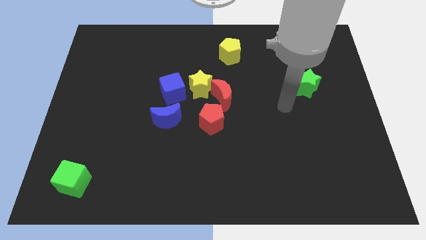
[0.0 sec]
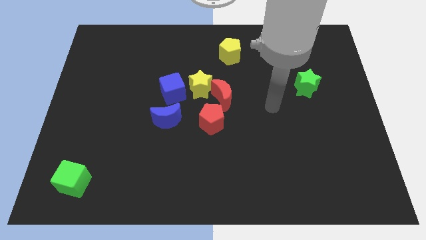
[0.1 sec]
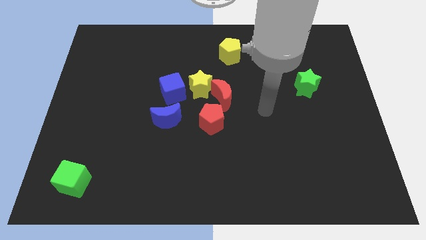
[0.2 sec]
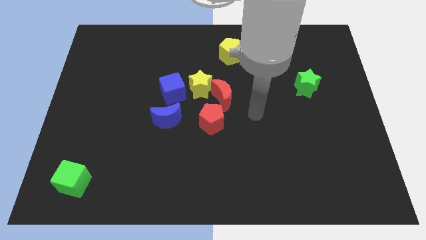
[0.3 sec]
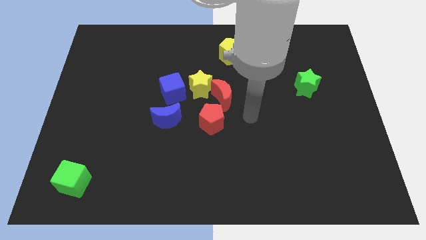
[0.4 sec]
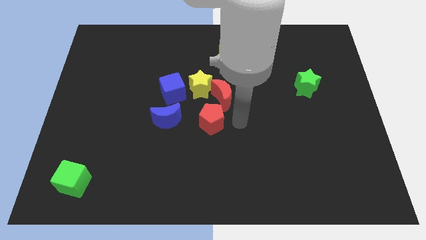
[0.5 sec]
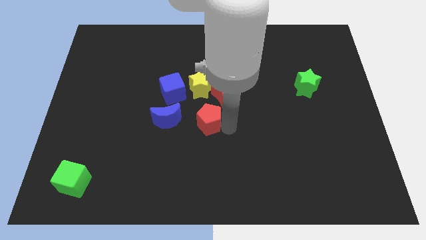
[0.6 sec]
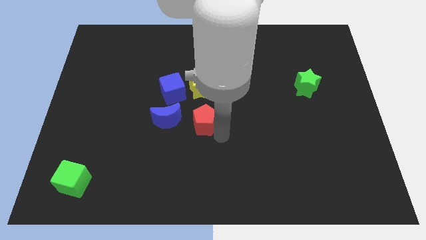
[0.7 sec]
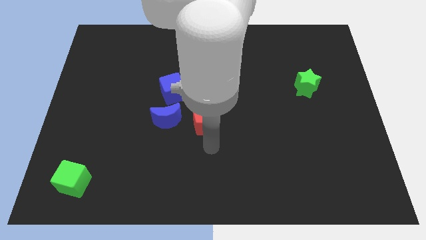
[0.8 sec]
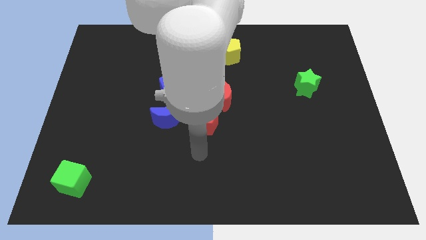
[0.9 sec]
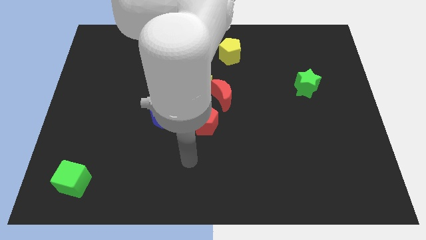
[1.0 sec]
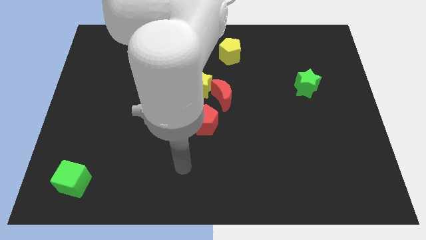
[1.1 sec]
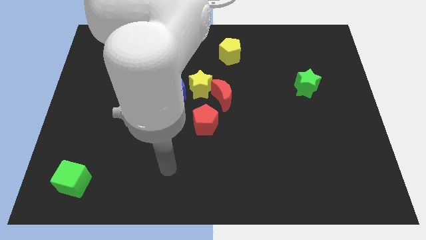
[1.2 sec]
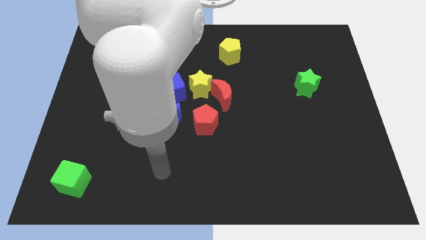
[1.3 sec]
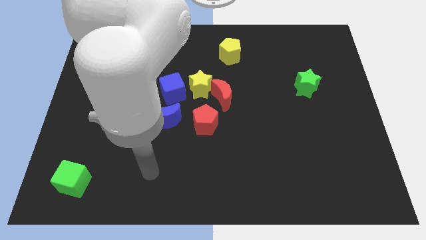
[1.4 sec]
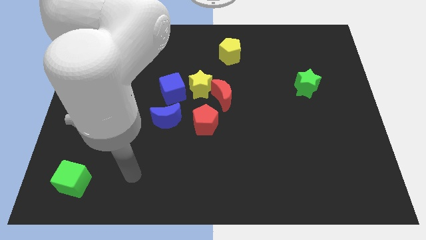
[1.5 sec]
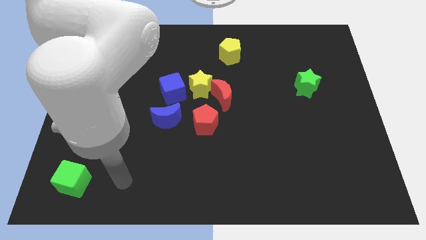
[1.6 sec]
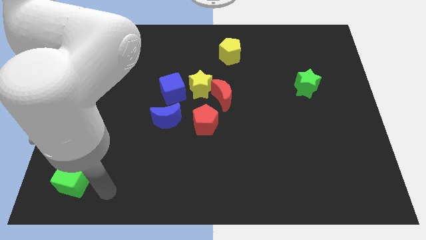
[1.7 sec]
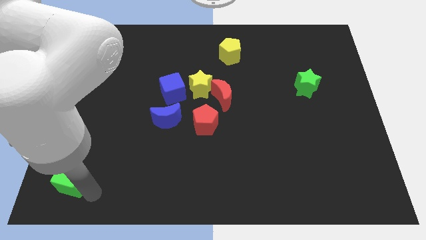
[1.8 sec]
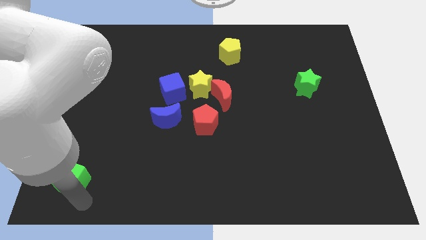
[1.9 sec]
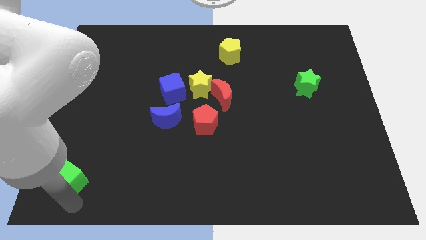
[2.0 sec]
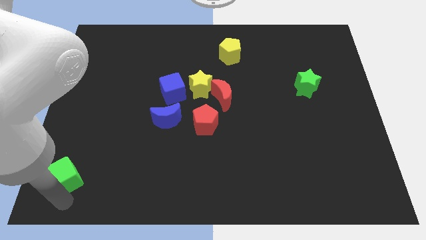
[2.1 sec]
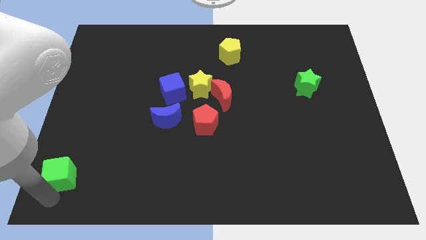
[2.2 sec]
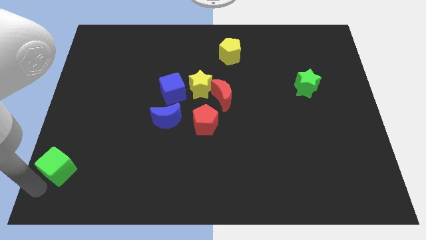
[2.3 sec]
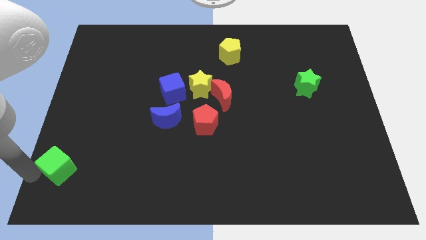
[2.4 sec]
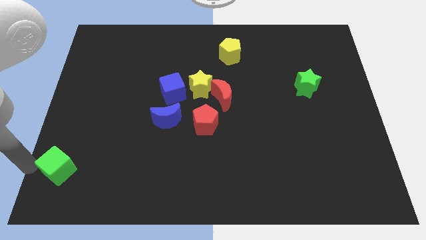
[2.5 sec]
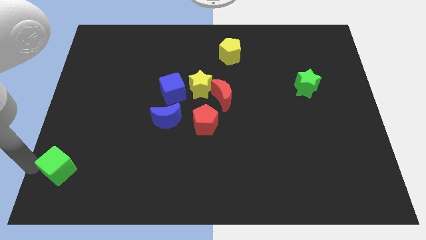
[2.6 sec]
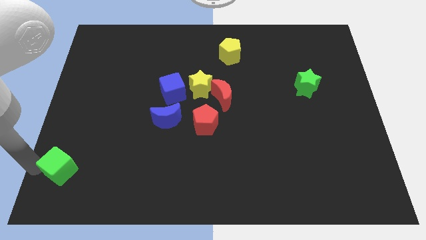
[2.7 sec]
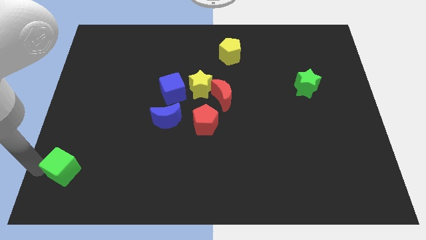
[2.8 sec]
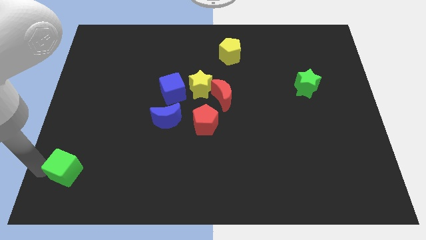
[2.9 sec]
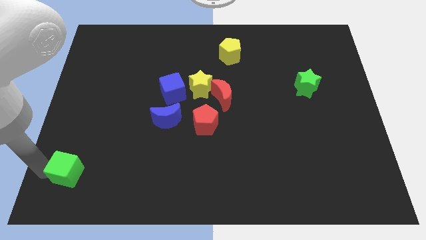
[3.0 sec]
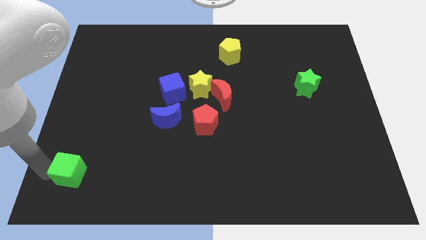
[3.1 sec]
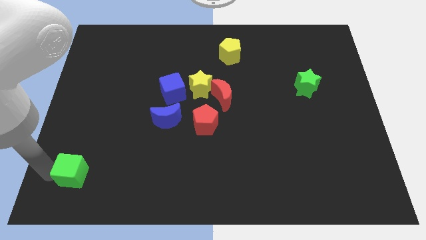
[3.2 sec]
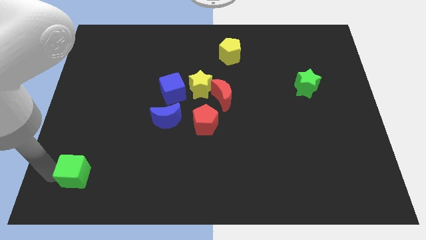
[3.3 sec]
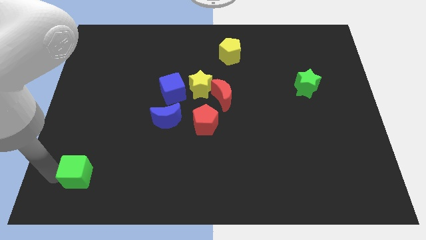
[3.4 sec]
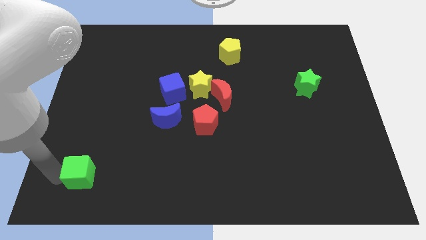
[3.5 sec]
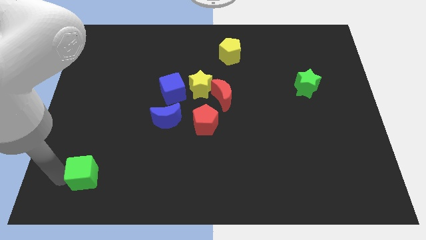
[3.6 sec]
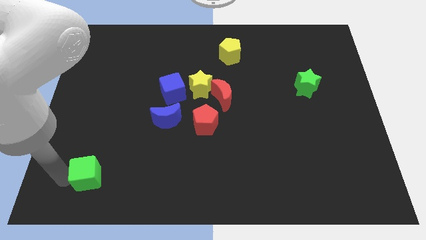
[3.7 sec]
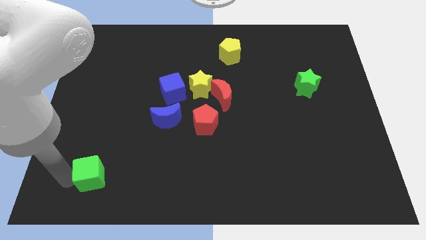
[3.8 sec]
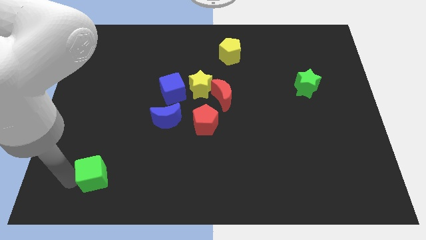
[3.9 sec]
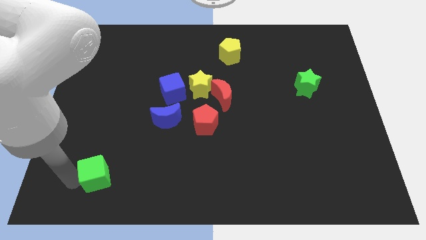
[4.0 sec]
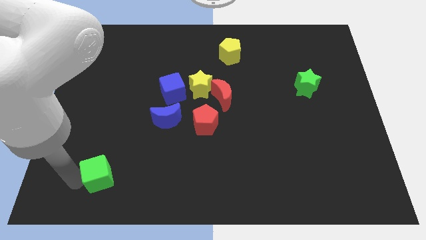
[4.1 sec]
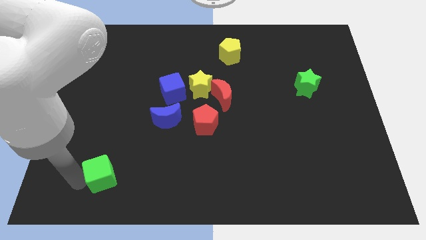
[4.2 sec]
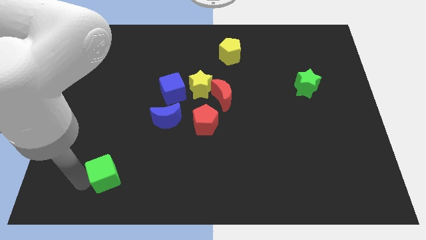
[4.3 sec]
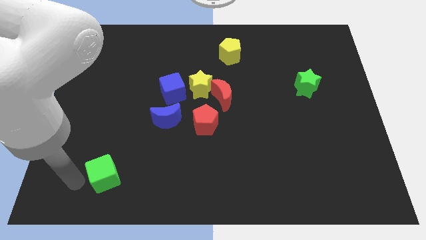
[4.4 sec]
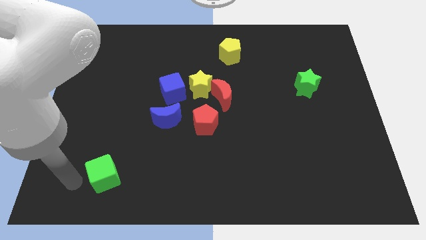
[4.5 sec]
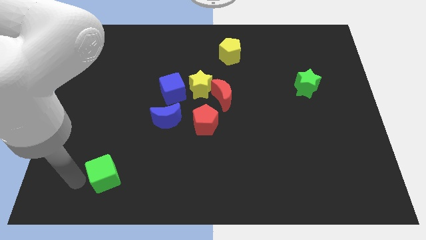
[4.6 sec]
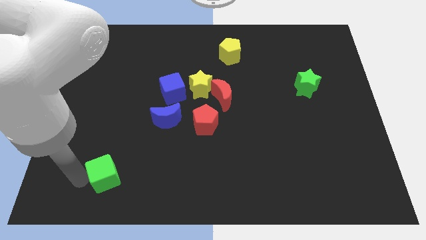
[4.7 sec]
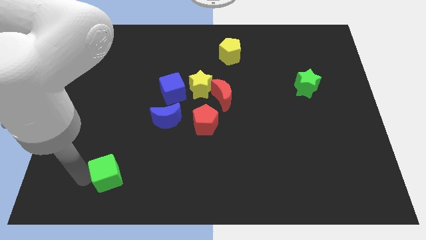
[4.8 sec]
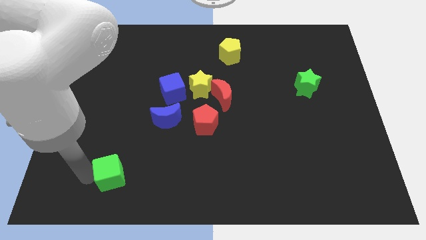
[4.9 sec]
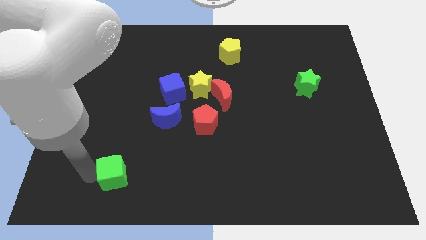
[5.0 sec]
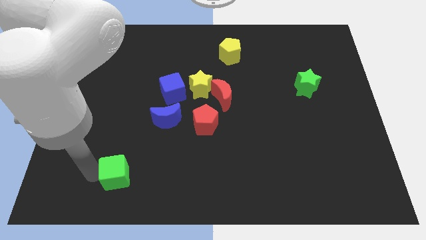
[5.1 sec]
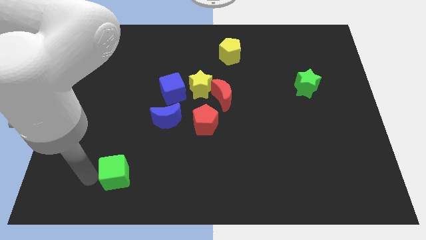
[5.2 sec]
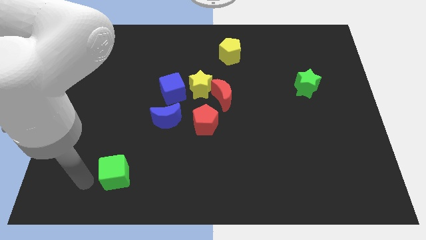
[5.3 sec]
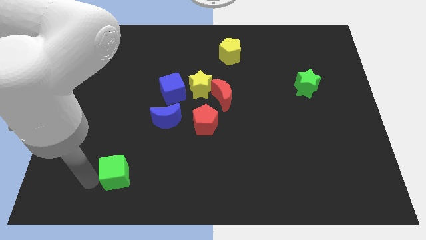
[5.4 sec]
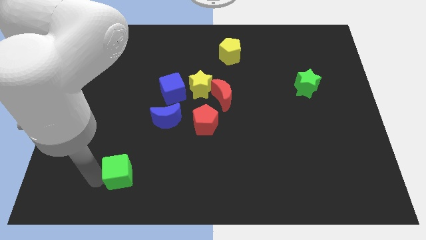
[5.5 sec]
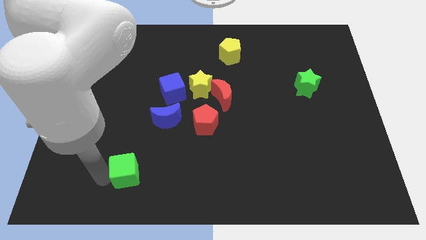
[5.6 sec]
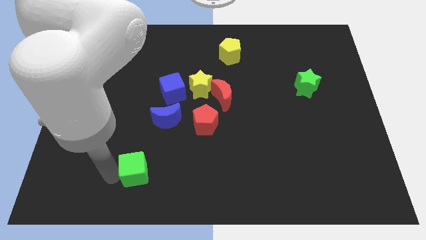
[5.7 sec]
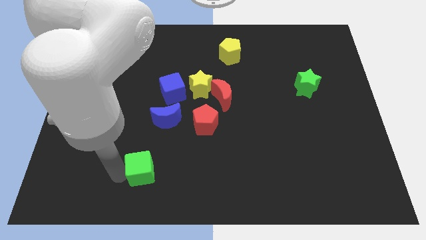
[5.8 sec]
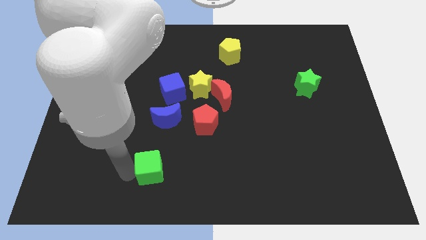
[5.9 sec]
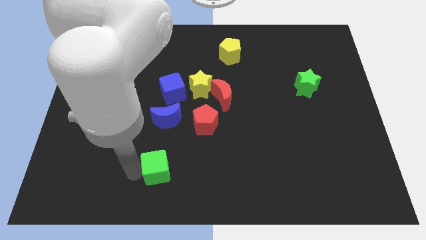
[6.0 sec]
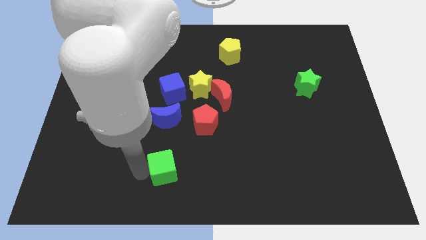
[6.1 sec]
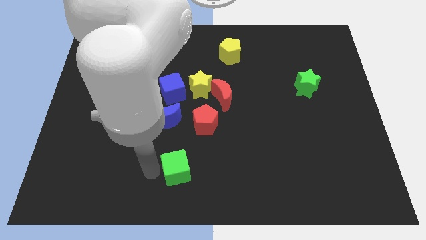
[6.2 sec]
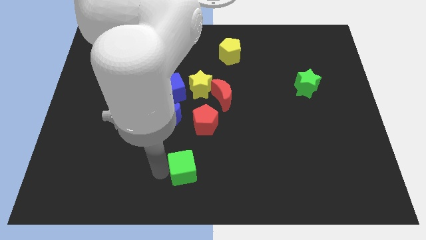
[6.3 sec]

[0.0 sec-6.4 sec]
put the green cube to the bottom of the red pentagon
